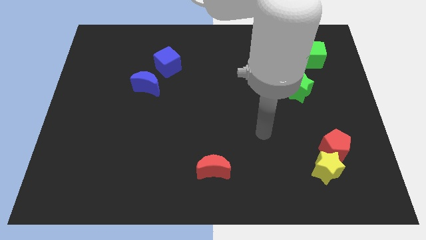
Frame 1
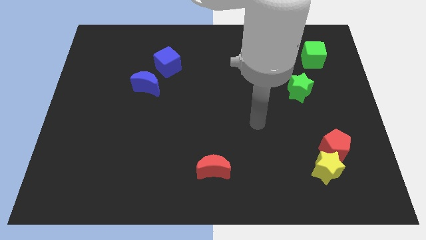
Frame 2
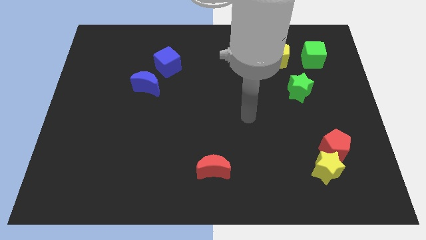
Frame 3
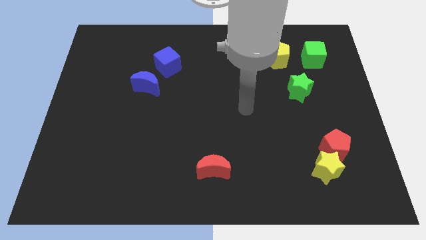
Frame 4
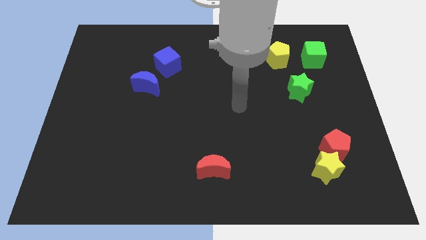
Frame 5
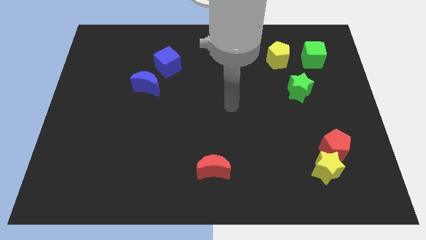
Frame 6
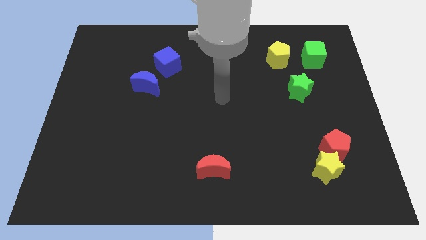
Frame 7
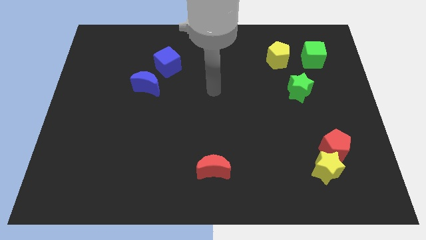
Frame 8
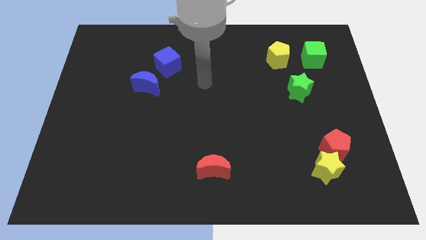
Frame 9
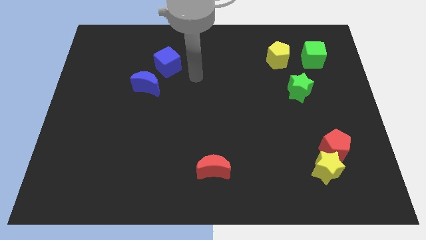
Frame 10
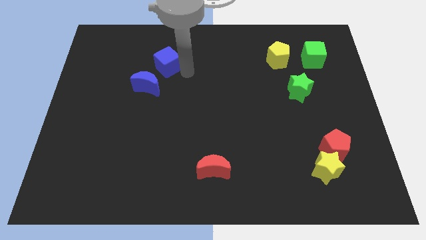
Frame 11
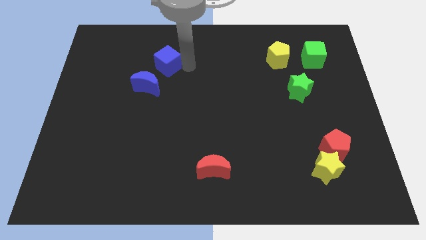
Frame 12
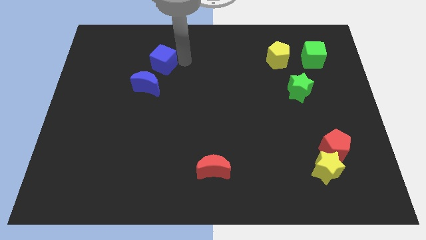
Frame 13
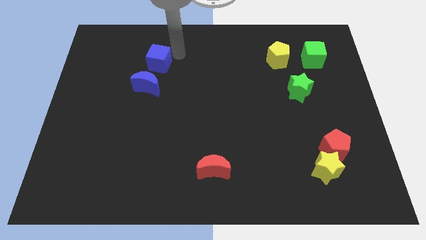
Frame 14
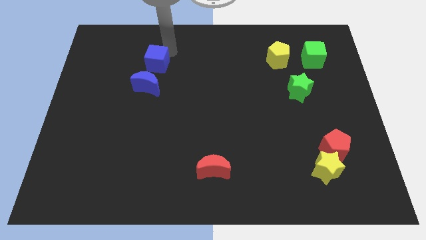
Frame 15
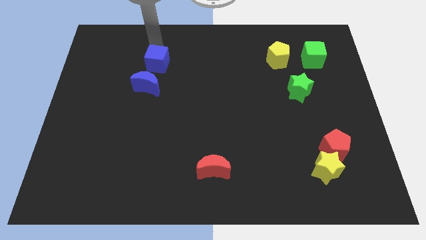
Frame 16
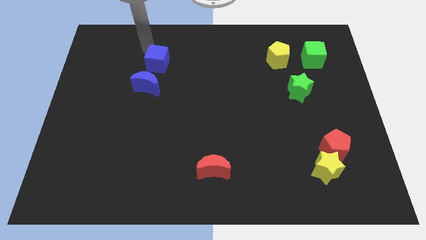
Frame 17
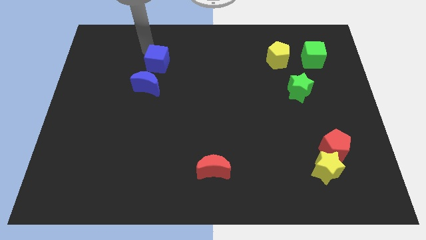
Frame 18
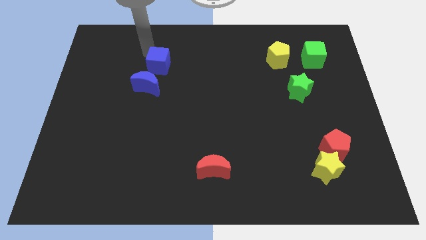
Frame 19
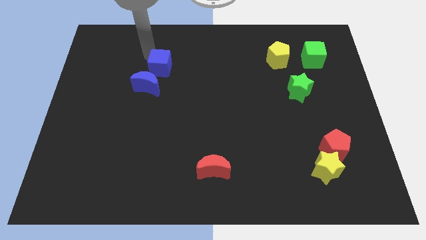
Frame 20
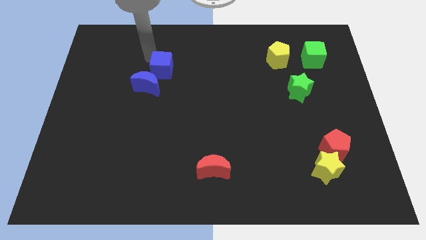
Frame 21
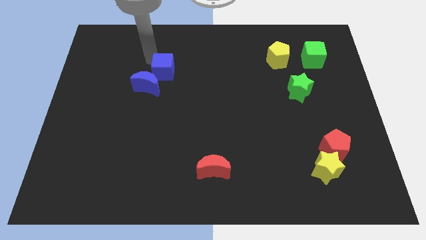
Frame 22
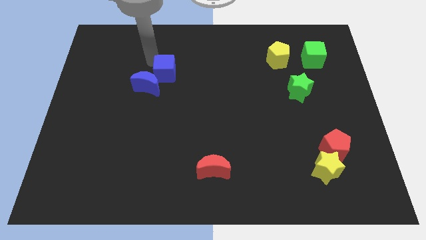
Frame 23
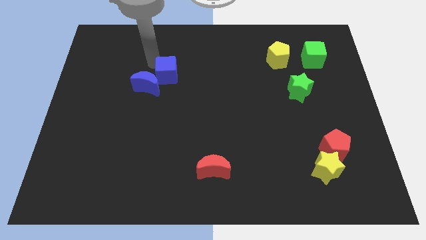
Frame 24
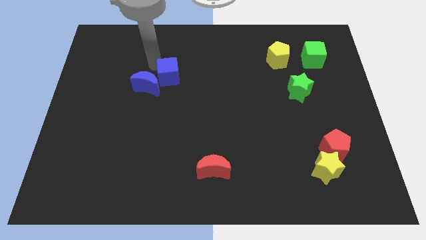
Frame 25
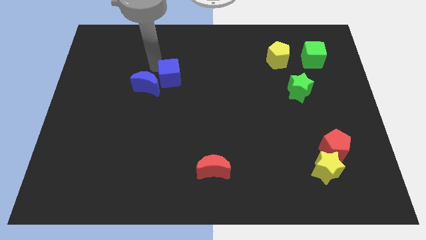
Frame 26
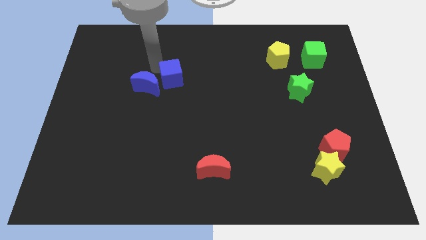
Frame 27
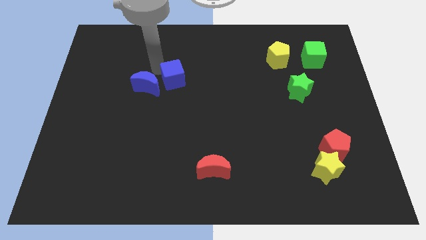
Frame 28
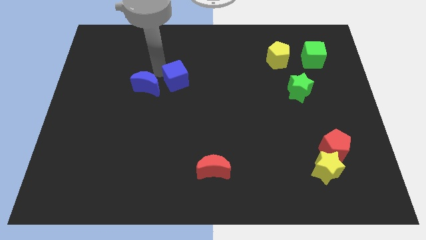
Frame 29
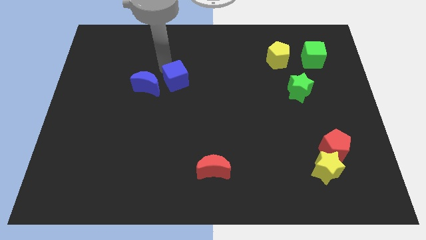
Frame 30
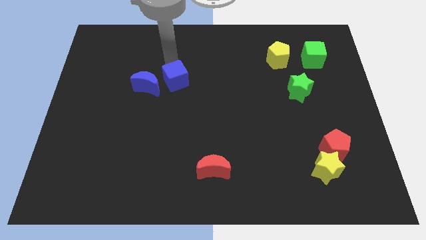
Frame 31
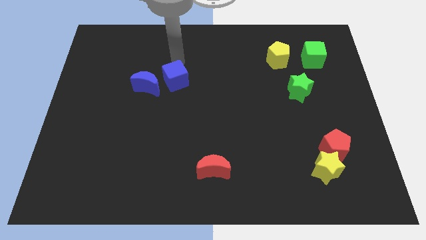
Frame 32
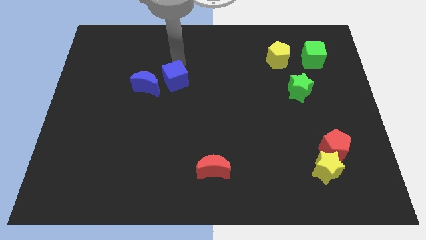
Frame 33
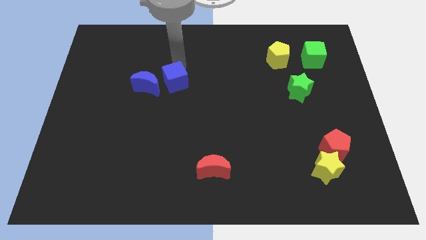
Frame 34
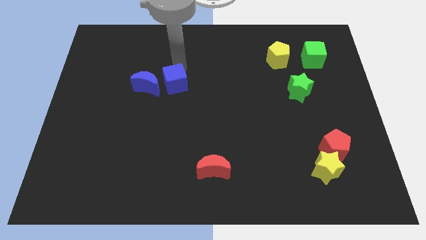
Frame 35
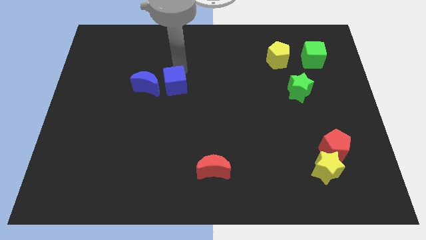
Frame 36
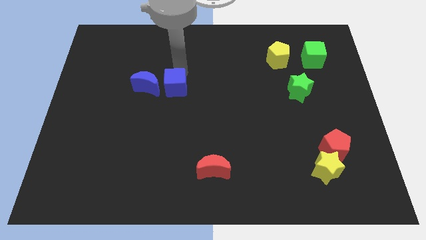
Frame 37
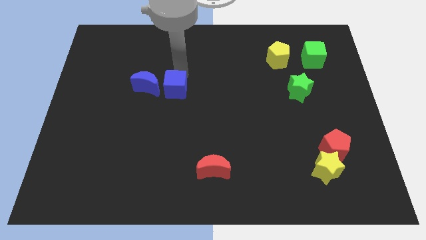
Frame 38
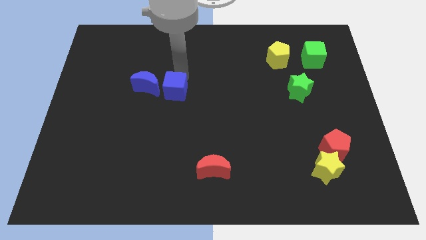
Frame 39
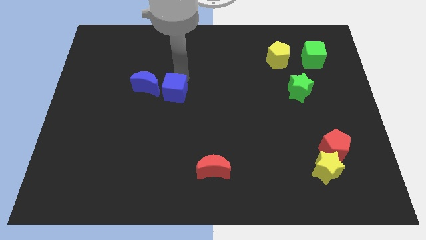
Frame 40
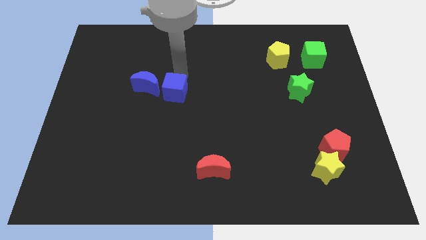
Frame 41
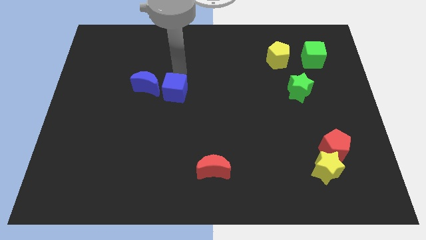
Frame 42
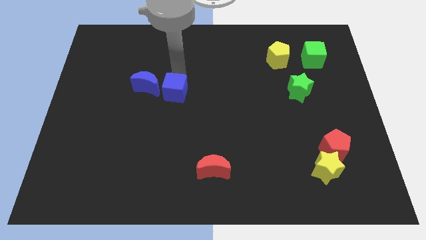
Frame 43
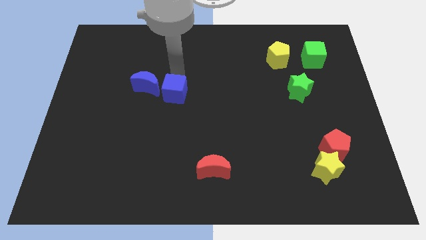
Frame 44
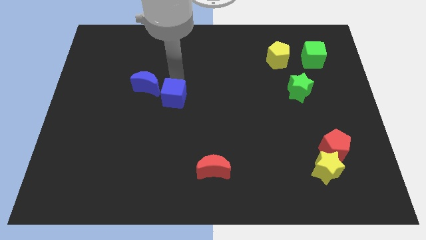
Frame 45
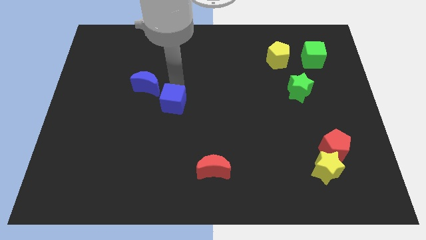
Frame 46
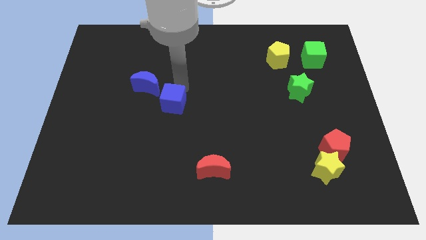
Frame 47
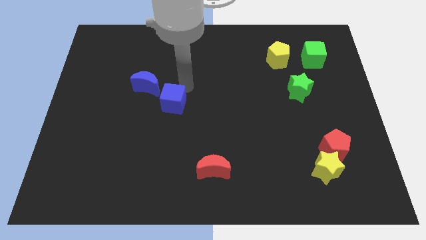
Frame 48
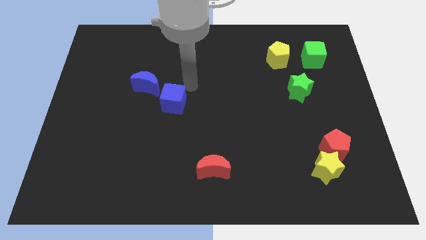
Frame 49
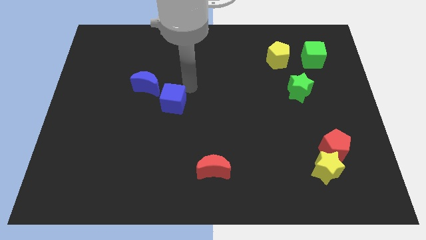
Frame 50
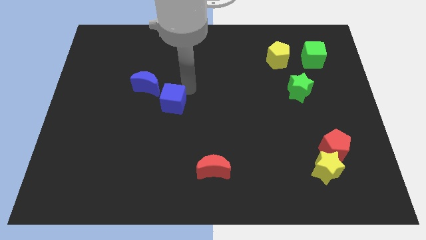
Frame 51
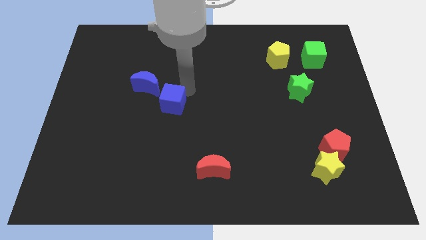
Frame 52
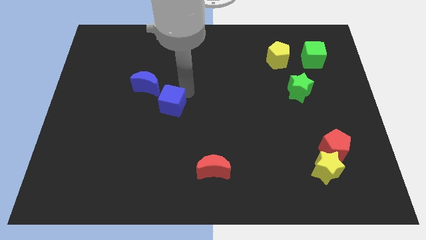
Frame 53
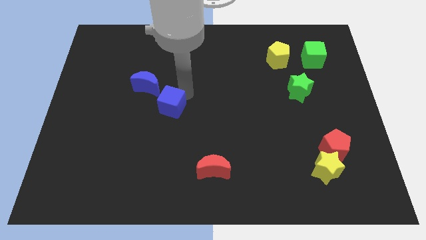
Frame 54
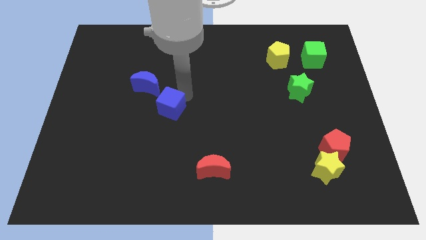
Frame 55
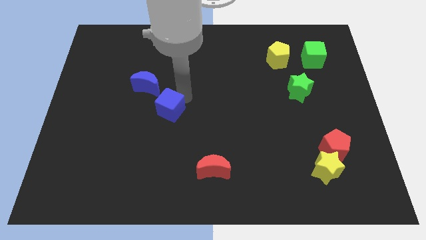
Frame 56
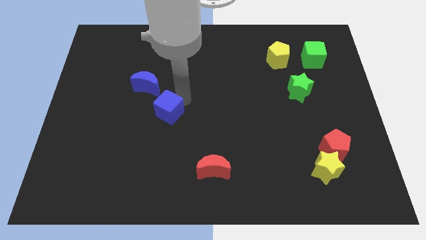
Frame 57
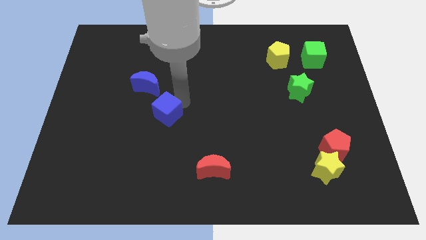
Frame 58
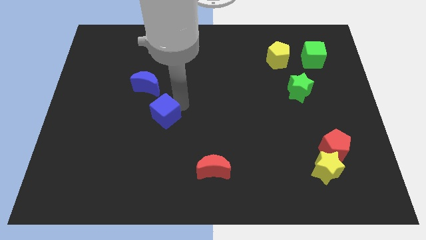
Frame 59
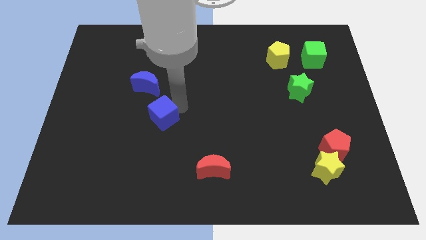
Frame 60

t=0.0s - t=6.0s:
move the blue cube to the bottom side of the blue moon

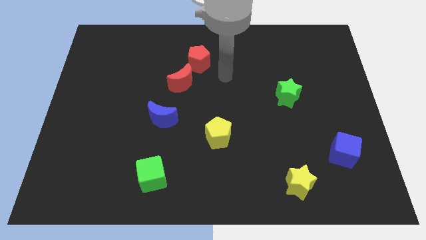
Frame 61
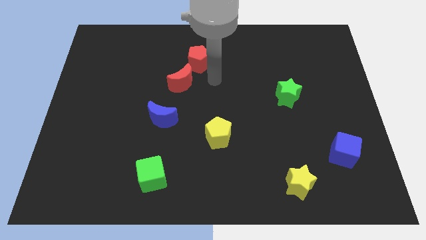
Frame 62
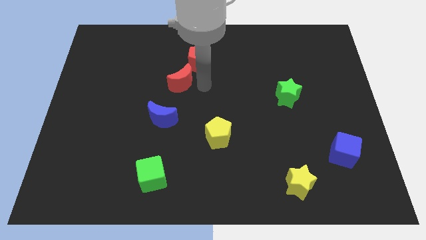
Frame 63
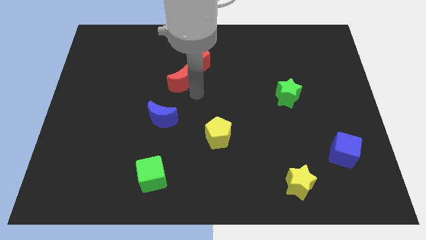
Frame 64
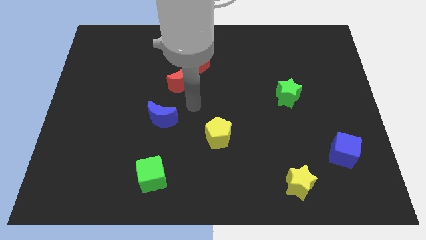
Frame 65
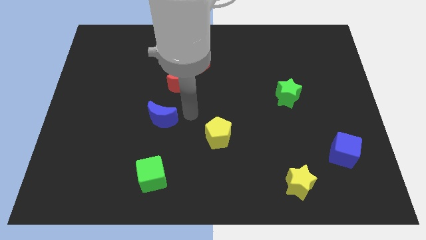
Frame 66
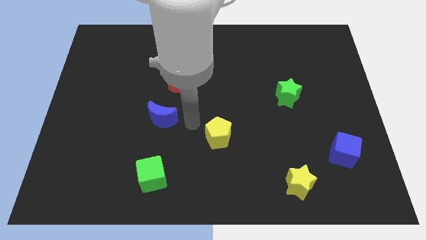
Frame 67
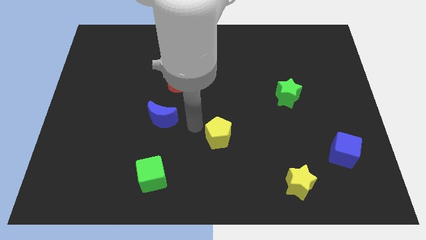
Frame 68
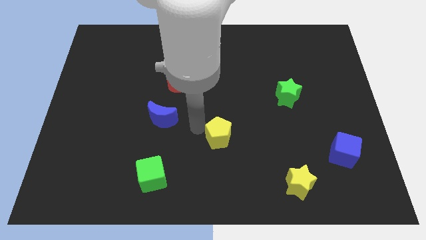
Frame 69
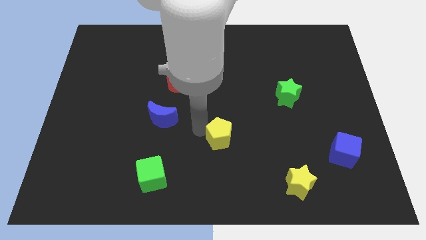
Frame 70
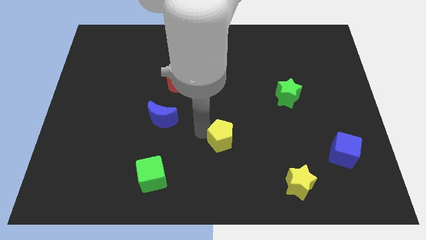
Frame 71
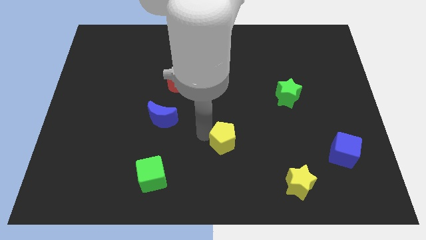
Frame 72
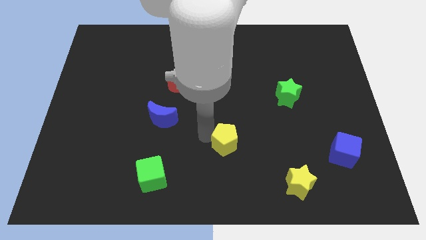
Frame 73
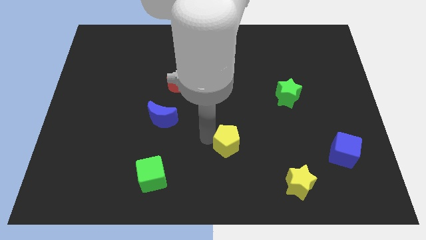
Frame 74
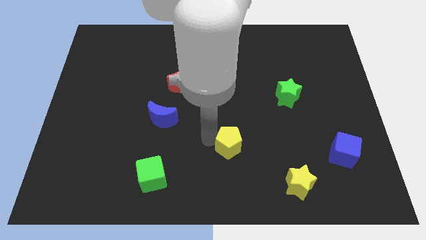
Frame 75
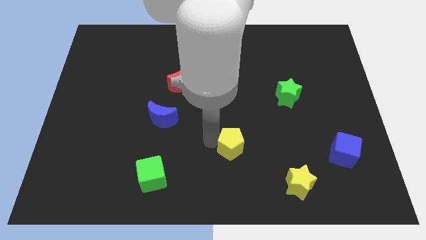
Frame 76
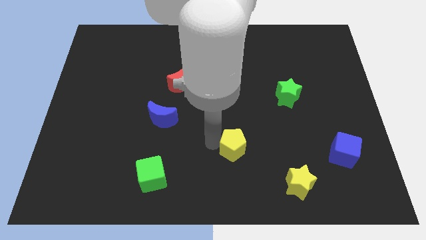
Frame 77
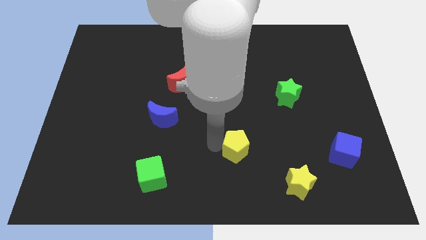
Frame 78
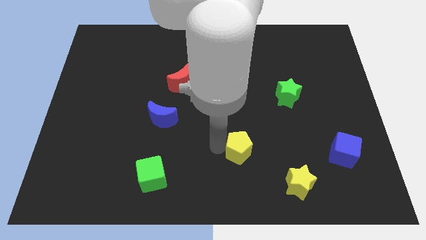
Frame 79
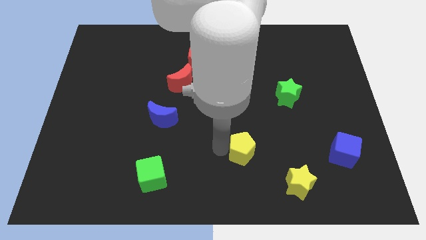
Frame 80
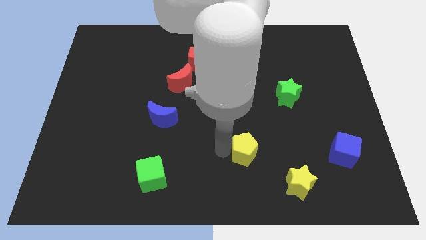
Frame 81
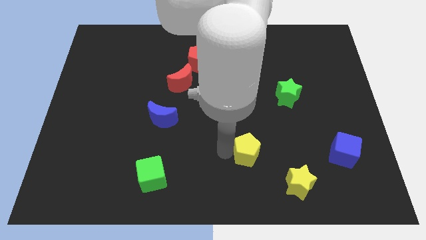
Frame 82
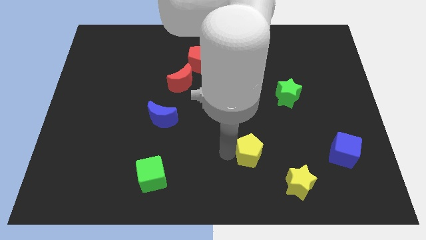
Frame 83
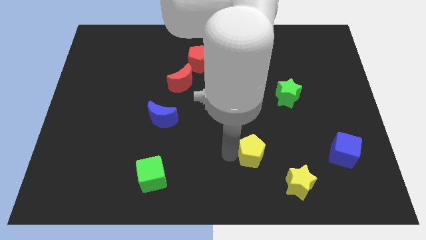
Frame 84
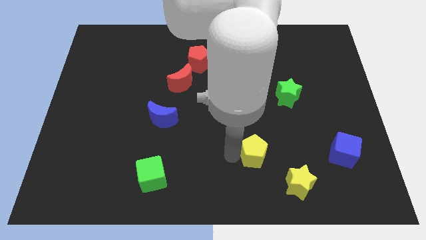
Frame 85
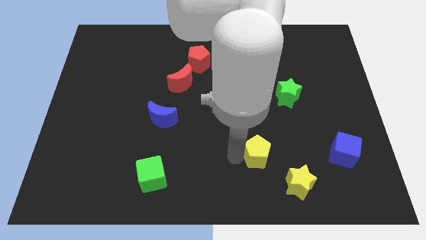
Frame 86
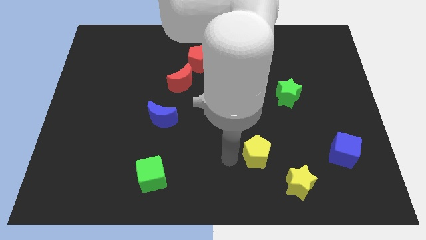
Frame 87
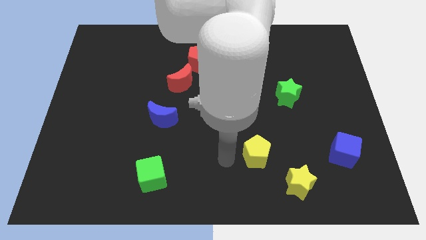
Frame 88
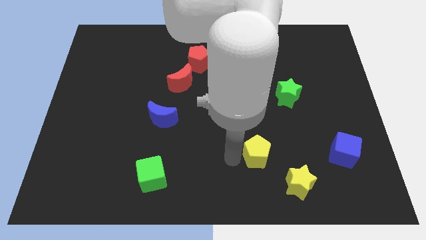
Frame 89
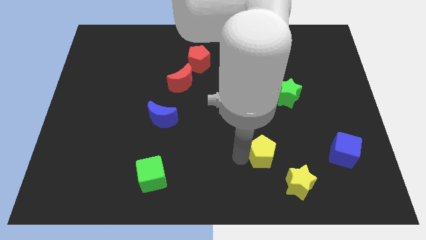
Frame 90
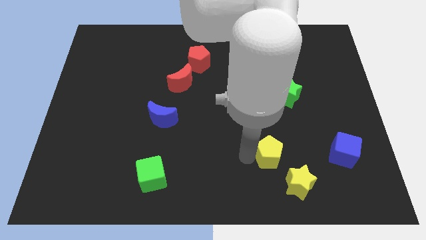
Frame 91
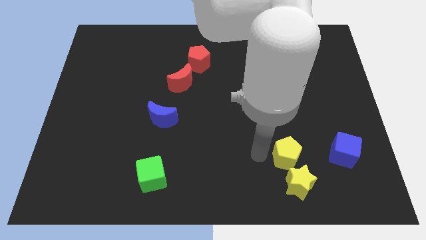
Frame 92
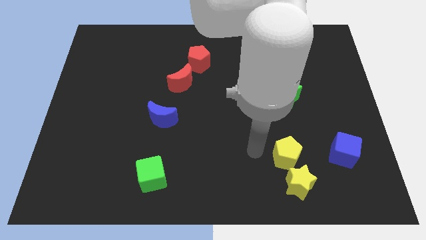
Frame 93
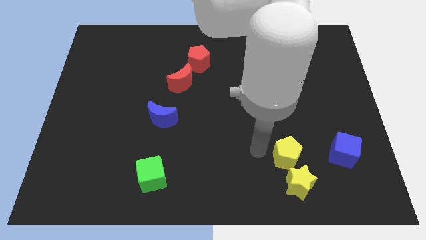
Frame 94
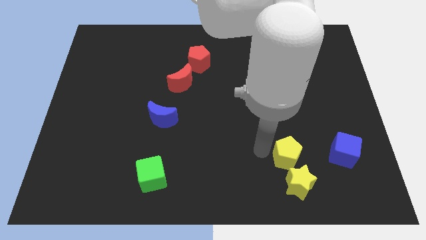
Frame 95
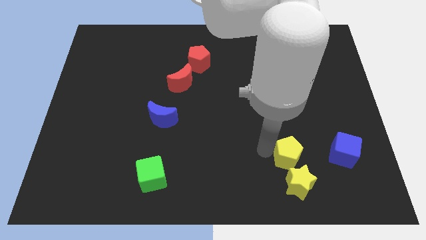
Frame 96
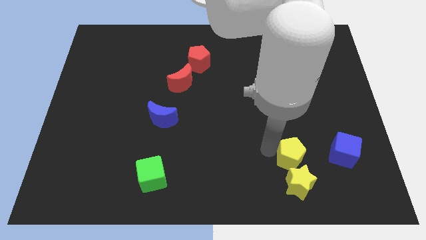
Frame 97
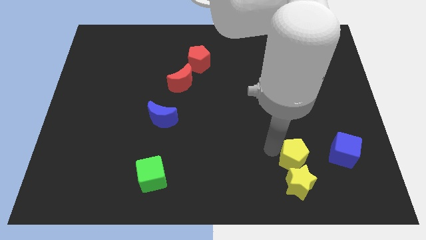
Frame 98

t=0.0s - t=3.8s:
push the yellow pentagon diagonally up and to the right of the yellow star
